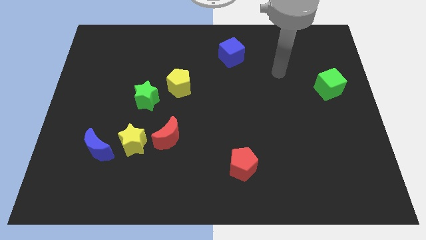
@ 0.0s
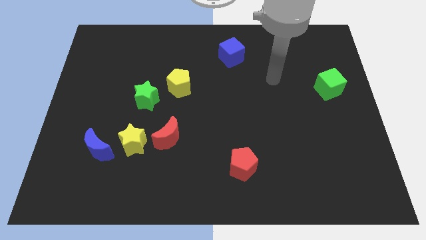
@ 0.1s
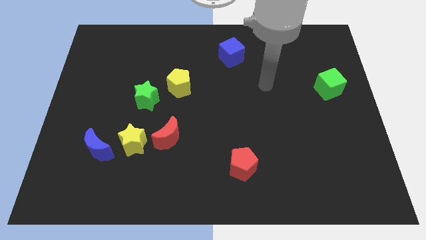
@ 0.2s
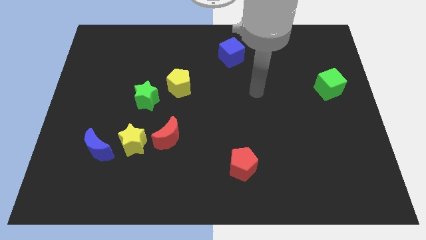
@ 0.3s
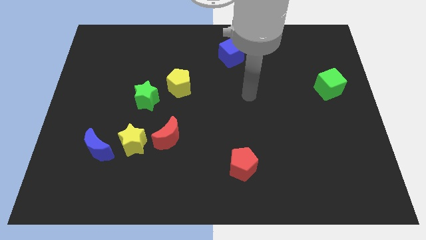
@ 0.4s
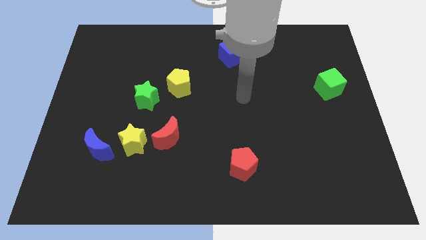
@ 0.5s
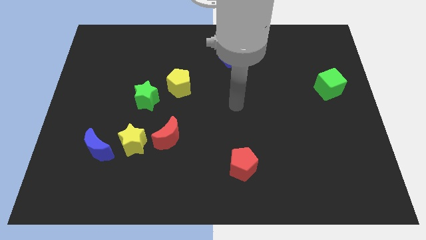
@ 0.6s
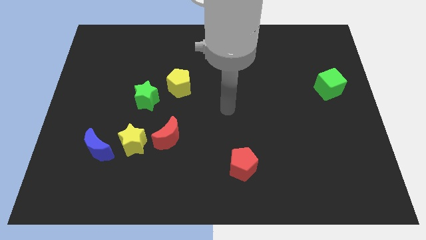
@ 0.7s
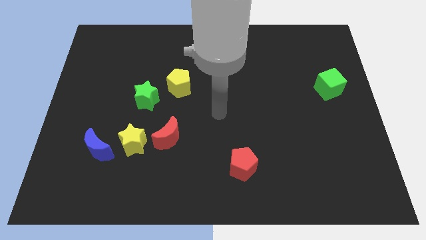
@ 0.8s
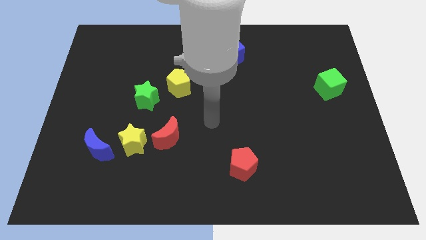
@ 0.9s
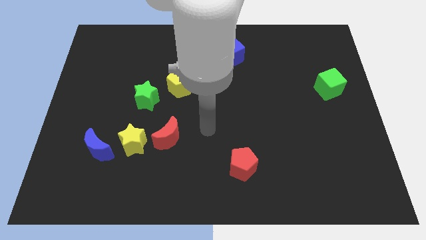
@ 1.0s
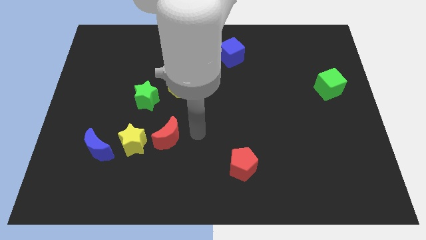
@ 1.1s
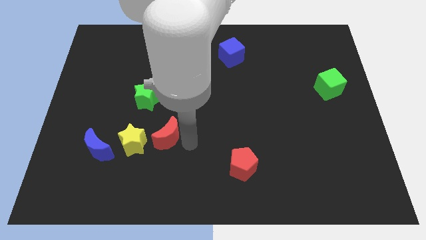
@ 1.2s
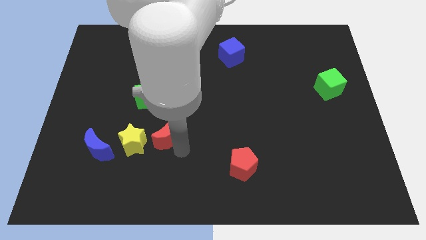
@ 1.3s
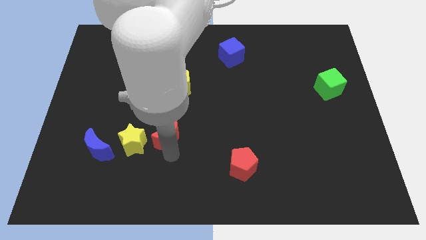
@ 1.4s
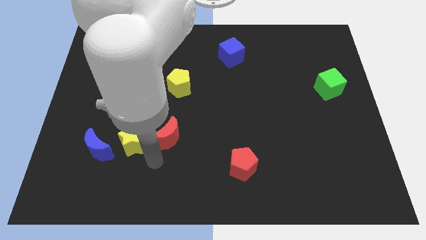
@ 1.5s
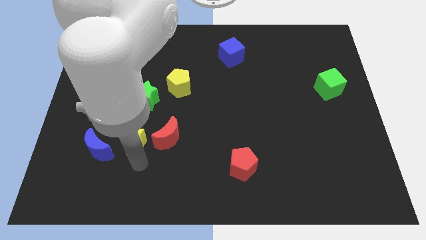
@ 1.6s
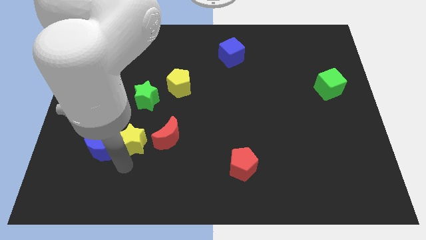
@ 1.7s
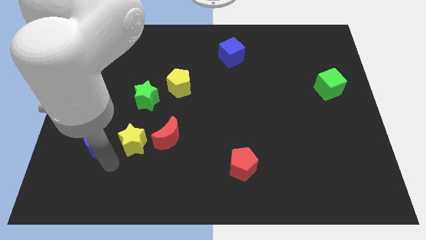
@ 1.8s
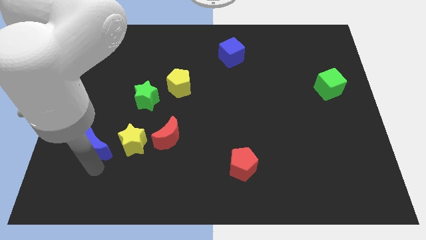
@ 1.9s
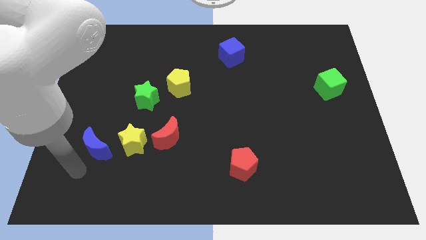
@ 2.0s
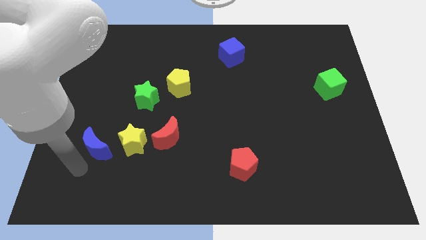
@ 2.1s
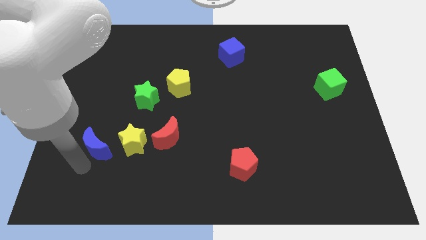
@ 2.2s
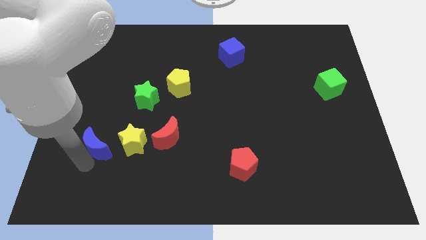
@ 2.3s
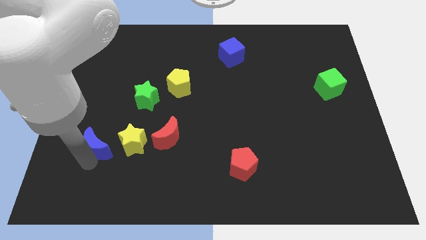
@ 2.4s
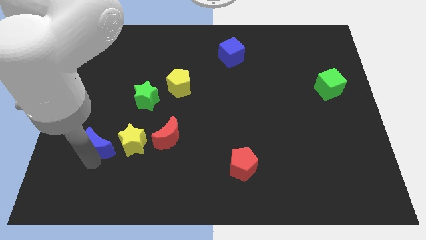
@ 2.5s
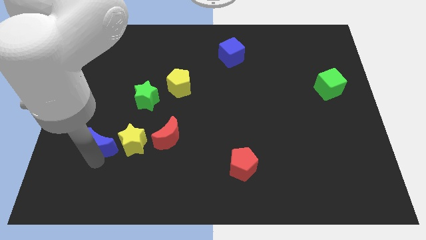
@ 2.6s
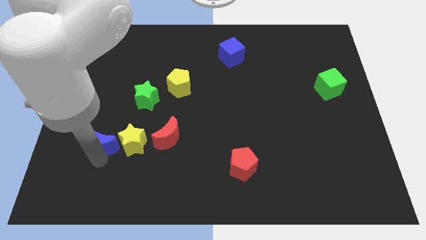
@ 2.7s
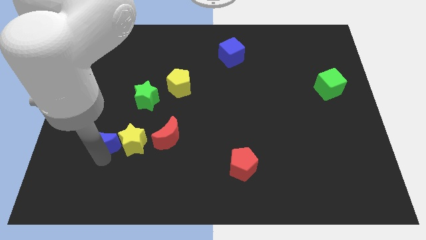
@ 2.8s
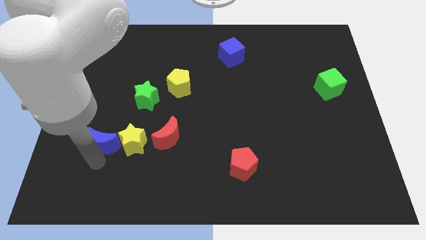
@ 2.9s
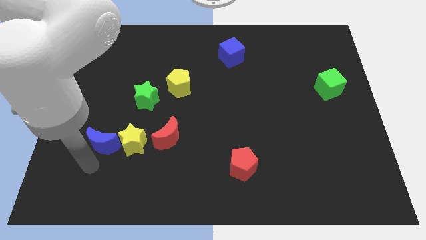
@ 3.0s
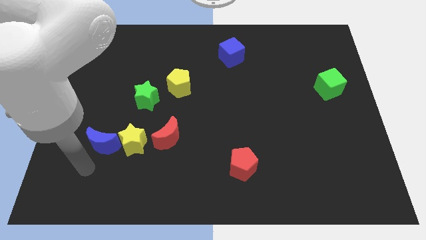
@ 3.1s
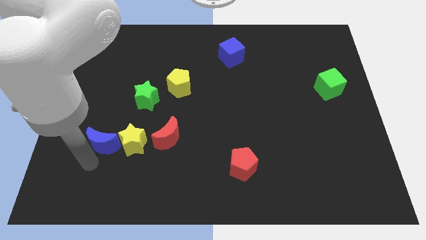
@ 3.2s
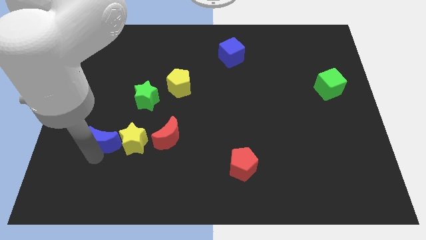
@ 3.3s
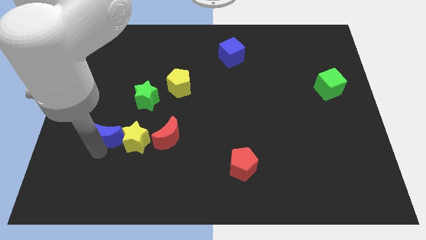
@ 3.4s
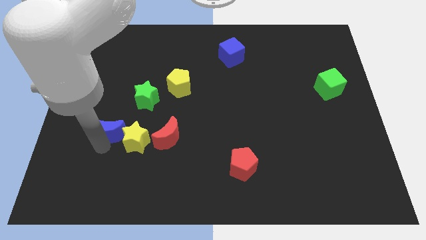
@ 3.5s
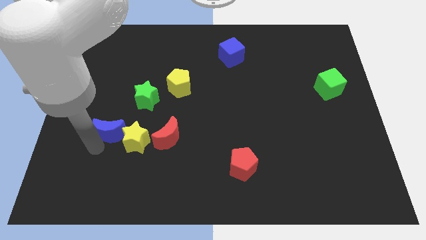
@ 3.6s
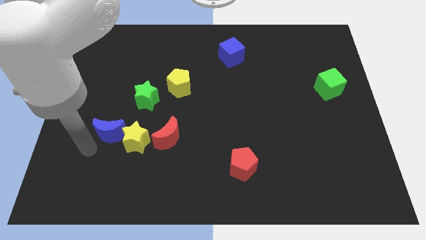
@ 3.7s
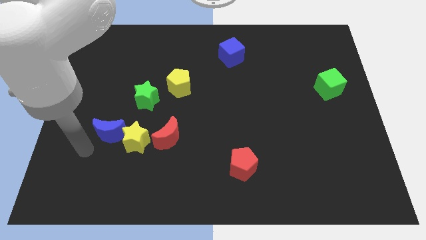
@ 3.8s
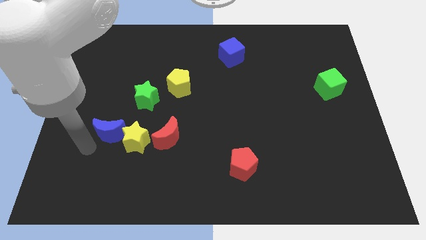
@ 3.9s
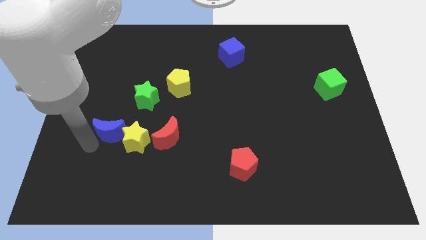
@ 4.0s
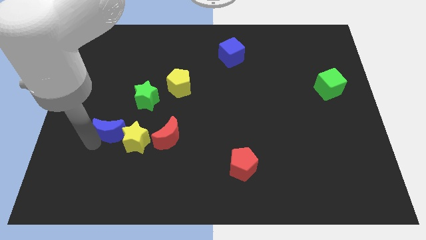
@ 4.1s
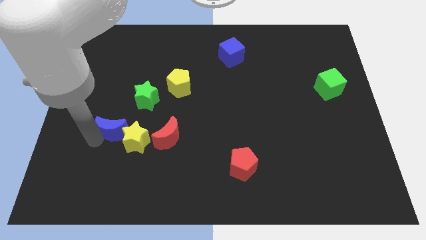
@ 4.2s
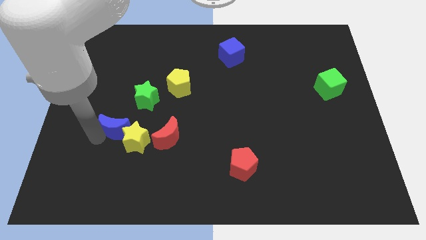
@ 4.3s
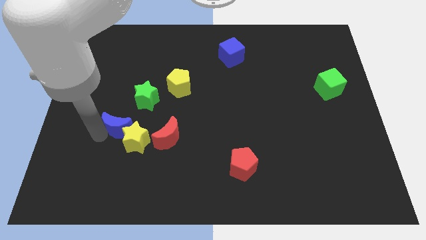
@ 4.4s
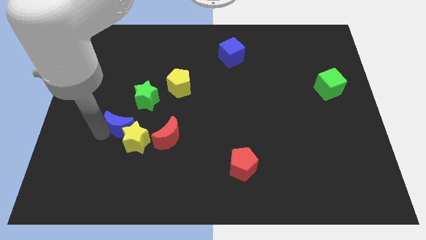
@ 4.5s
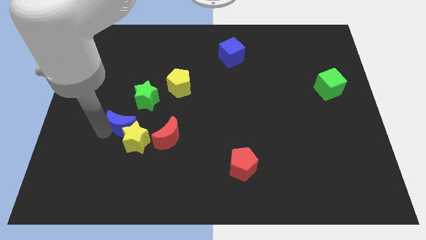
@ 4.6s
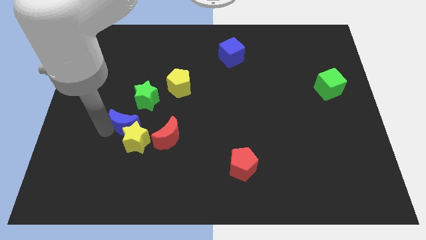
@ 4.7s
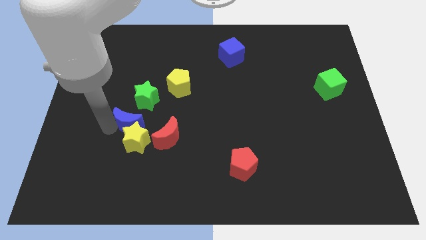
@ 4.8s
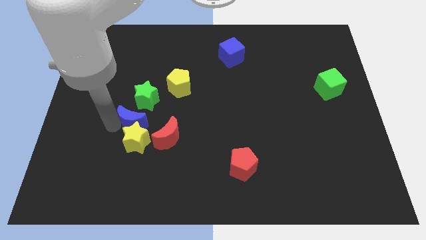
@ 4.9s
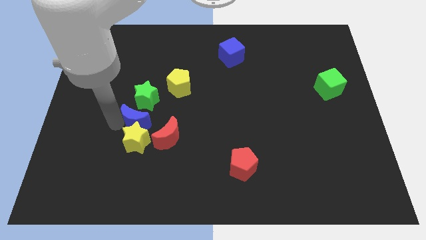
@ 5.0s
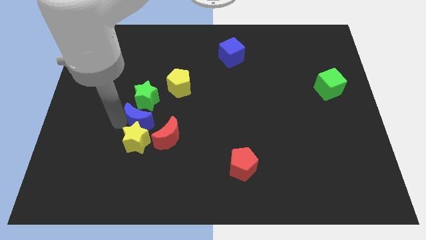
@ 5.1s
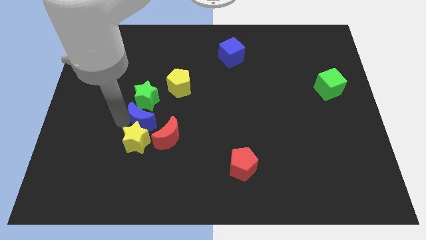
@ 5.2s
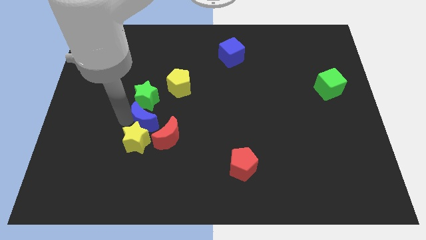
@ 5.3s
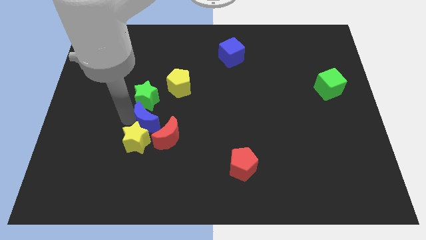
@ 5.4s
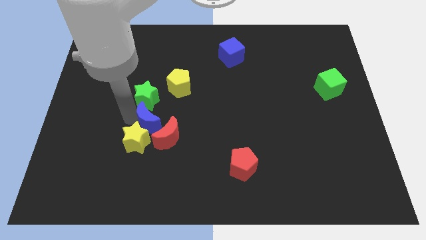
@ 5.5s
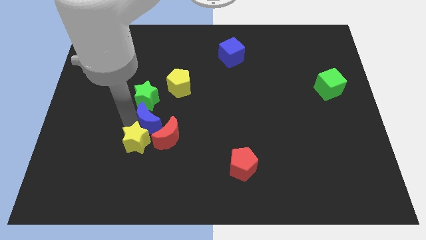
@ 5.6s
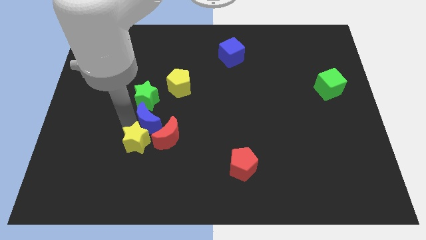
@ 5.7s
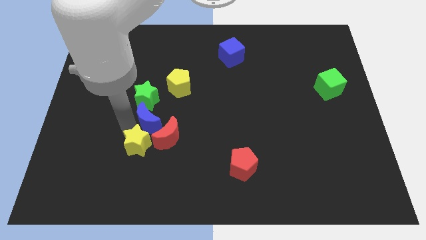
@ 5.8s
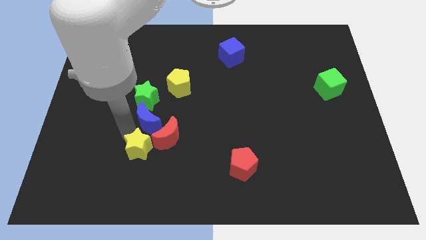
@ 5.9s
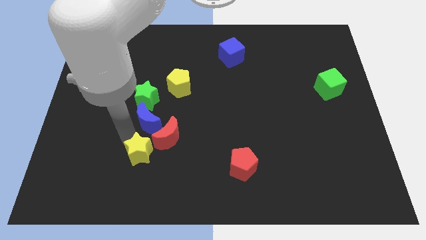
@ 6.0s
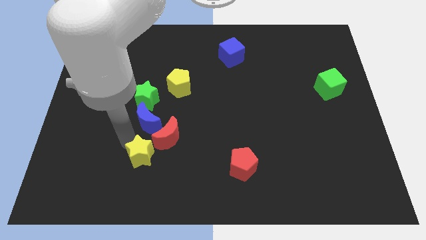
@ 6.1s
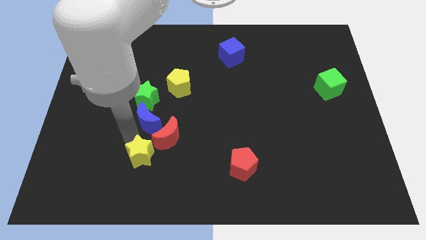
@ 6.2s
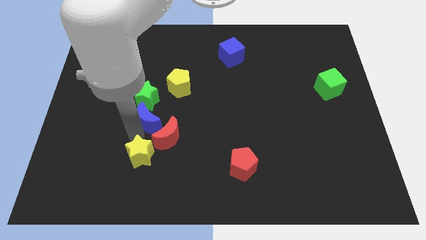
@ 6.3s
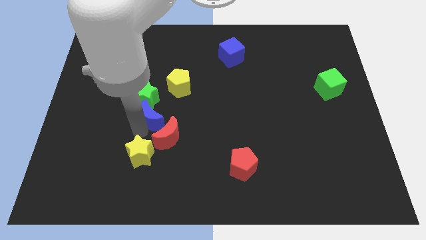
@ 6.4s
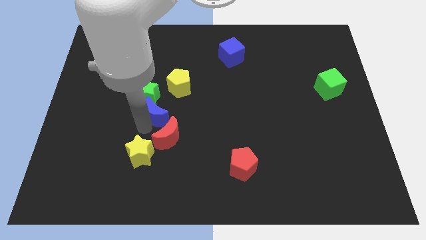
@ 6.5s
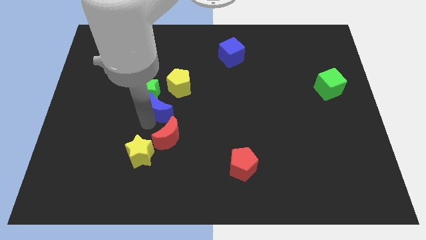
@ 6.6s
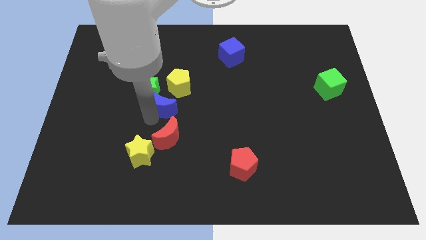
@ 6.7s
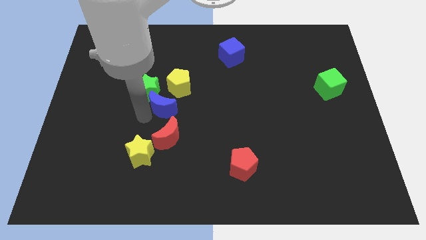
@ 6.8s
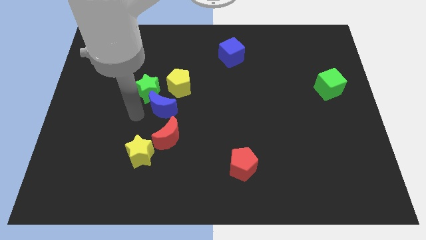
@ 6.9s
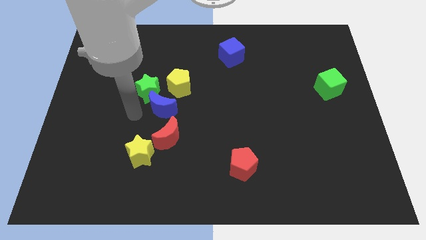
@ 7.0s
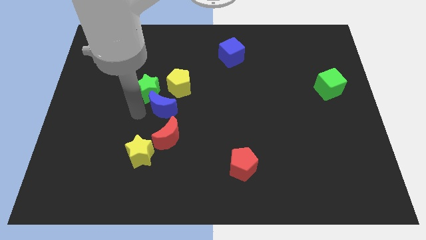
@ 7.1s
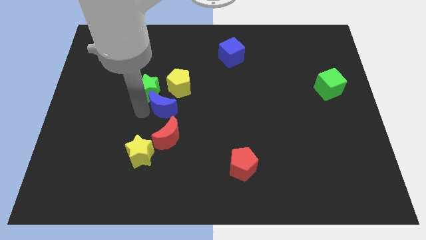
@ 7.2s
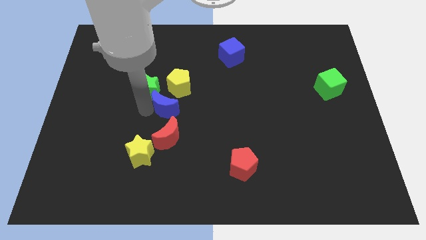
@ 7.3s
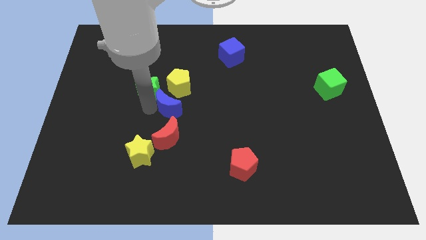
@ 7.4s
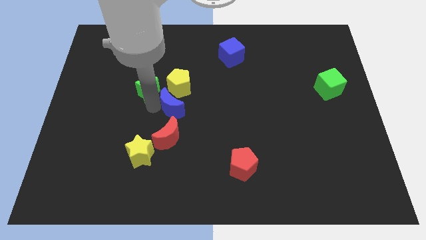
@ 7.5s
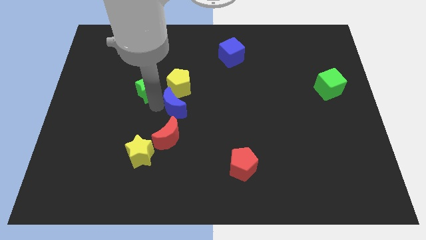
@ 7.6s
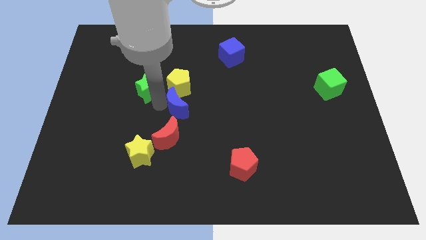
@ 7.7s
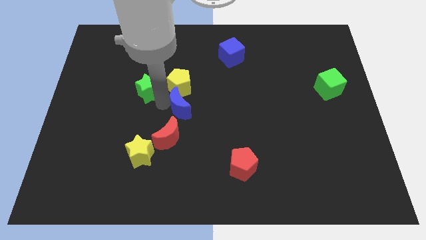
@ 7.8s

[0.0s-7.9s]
slide the blue moon to the bottom right of the yellow pentagon
